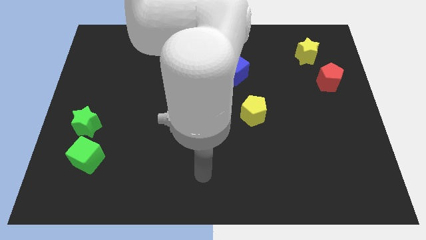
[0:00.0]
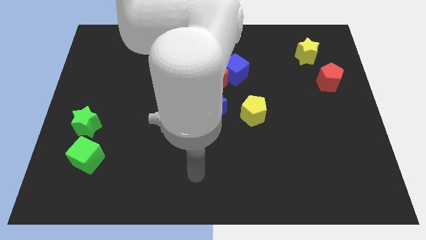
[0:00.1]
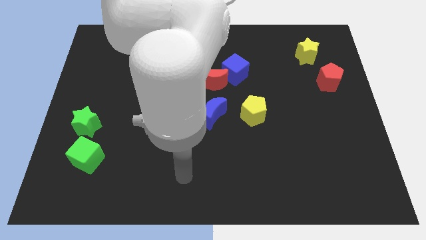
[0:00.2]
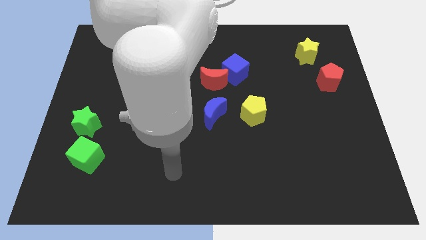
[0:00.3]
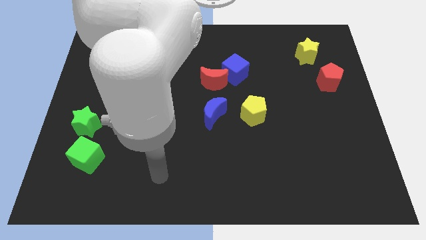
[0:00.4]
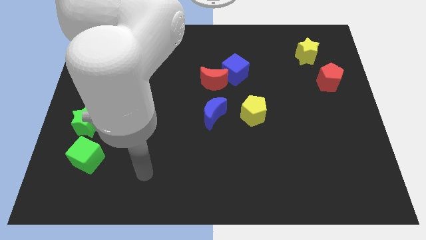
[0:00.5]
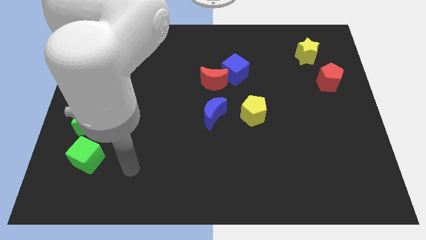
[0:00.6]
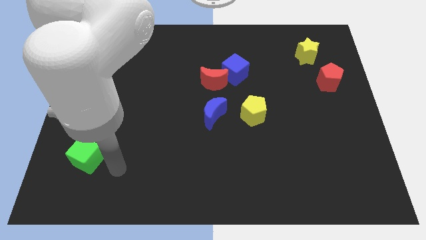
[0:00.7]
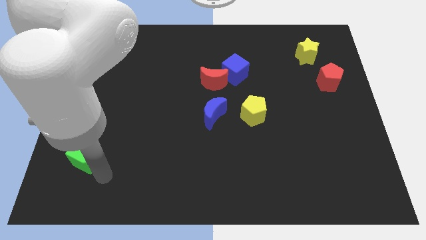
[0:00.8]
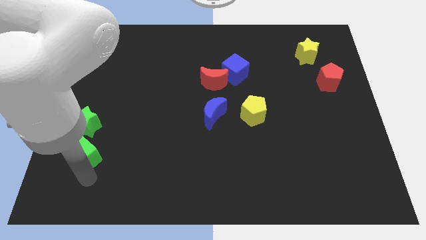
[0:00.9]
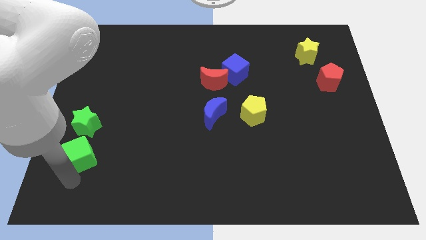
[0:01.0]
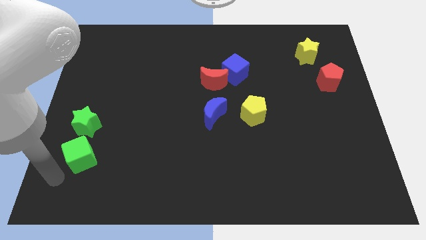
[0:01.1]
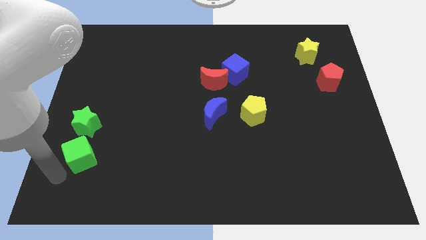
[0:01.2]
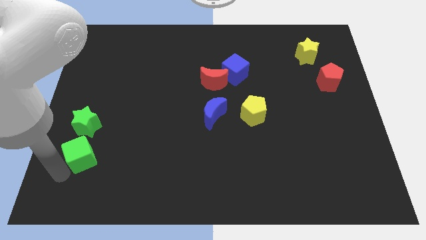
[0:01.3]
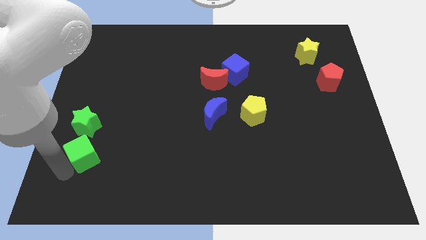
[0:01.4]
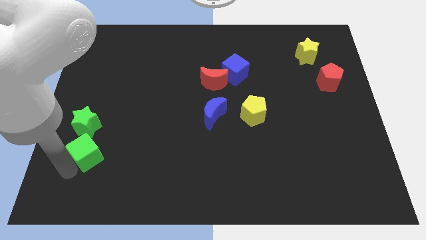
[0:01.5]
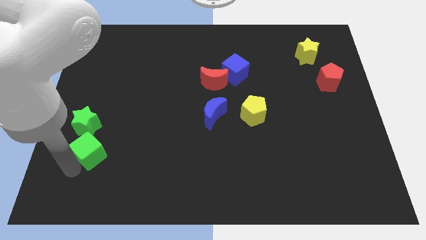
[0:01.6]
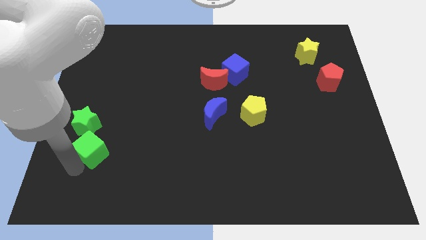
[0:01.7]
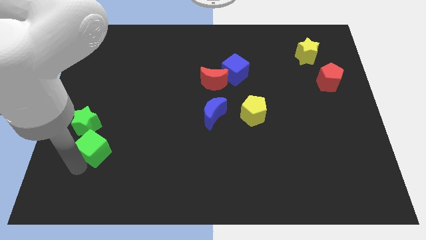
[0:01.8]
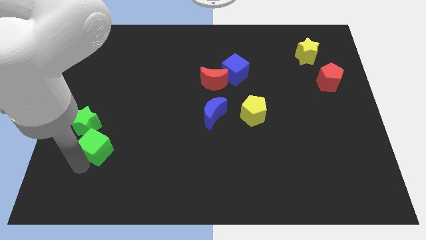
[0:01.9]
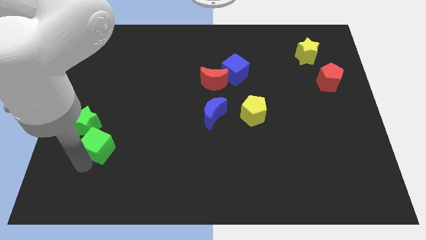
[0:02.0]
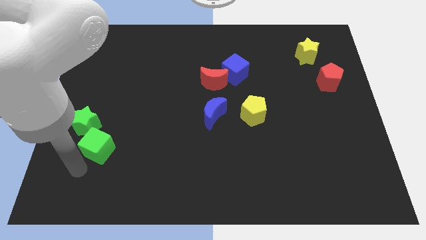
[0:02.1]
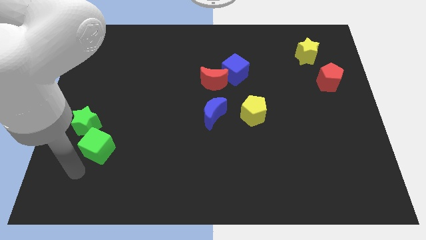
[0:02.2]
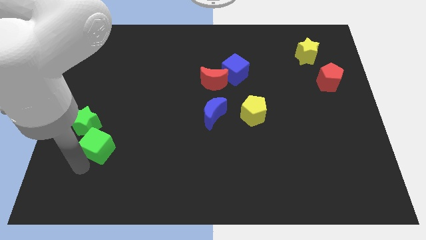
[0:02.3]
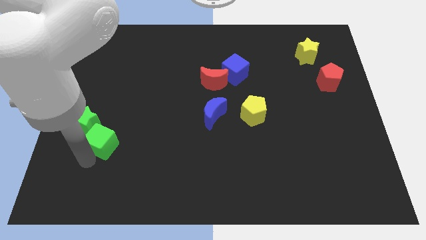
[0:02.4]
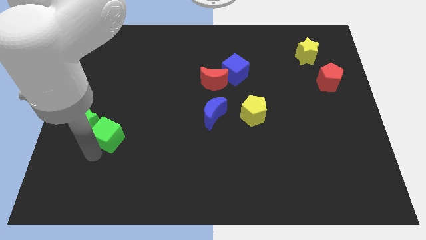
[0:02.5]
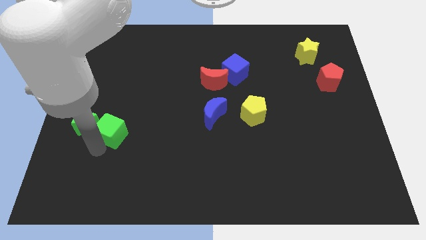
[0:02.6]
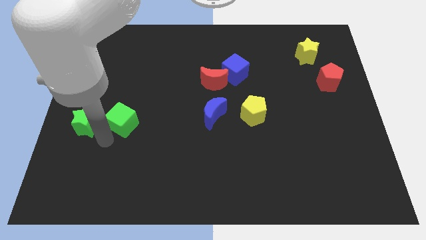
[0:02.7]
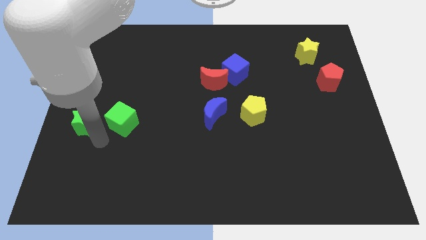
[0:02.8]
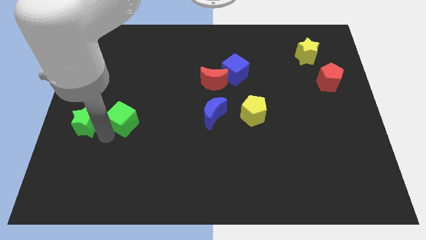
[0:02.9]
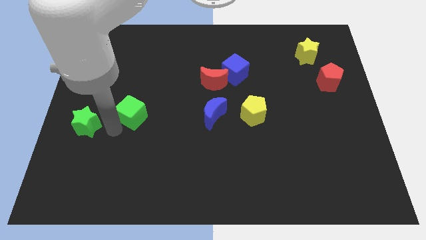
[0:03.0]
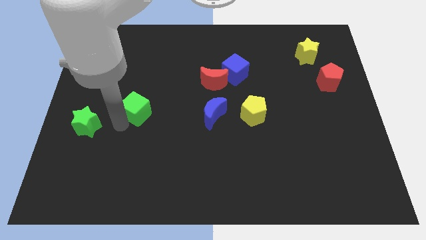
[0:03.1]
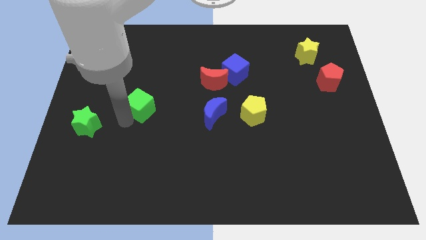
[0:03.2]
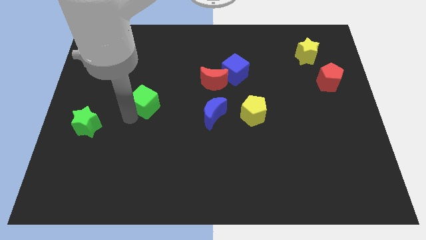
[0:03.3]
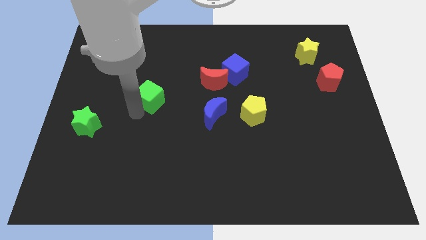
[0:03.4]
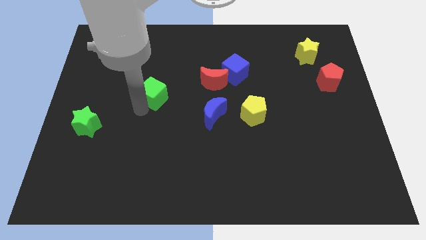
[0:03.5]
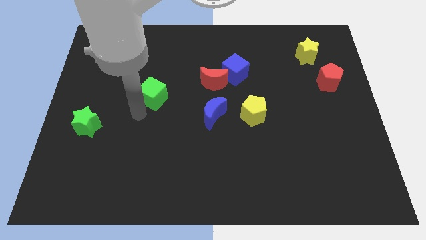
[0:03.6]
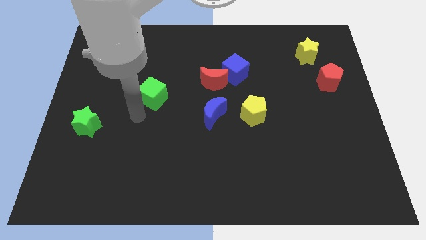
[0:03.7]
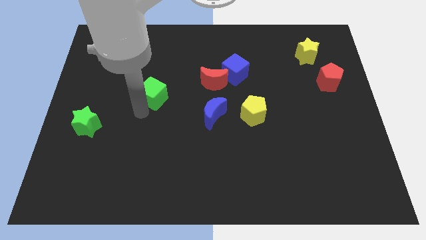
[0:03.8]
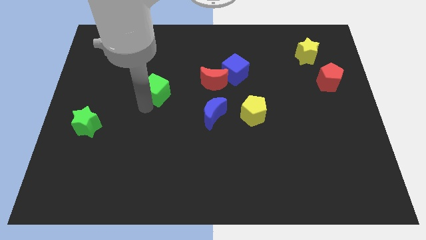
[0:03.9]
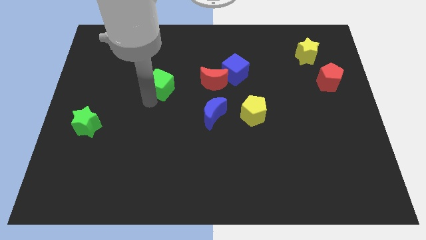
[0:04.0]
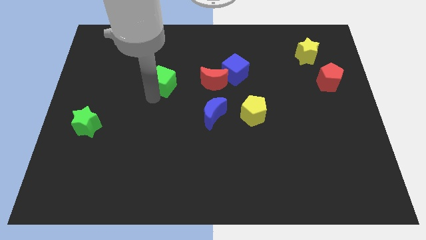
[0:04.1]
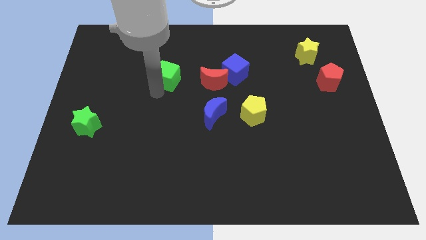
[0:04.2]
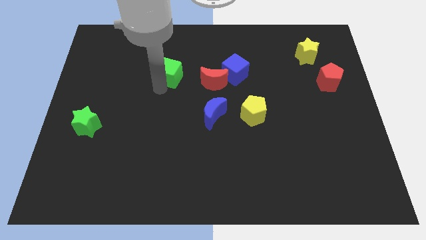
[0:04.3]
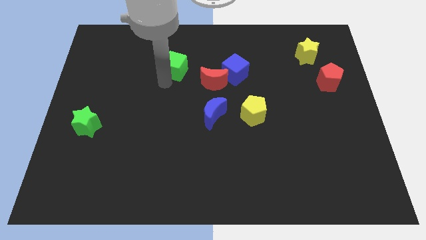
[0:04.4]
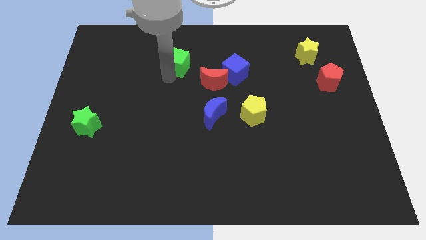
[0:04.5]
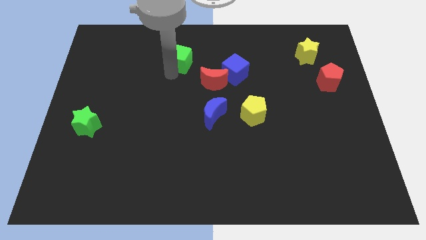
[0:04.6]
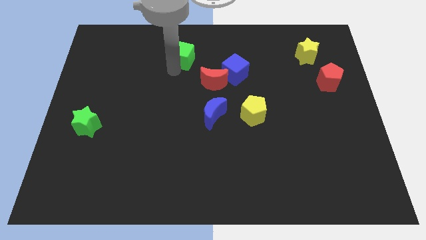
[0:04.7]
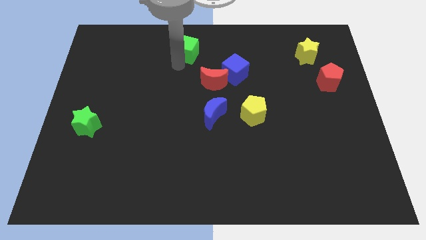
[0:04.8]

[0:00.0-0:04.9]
push the green cube to the top

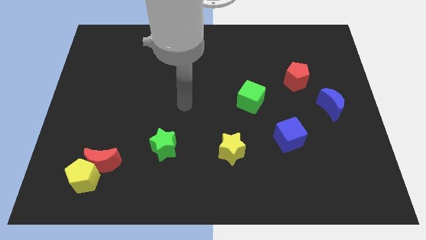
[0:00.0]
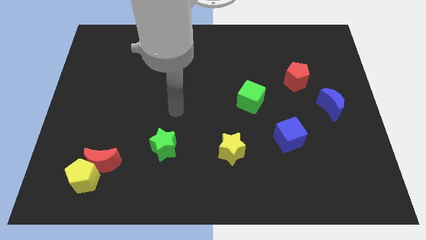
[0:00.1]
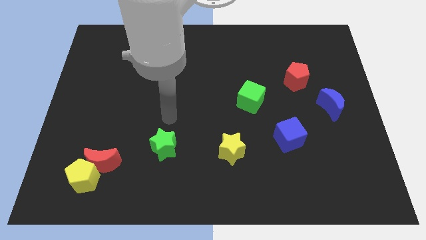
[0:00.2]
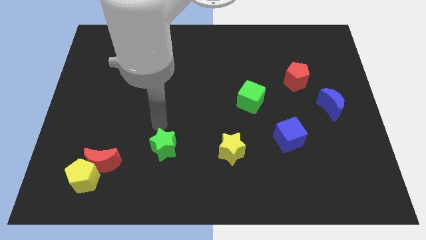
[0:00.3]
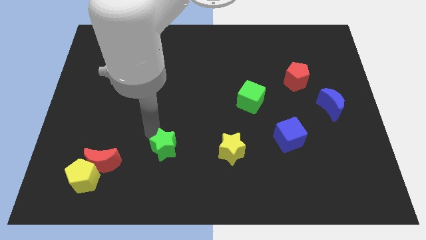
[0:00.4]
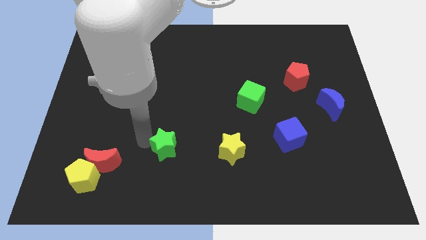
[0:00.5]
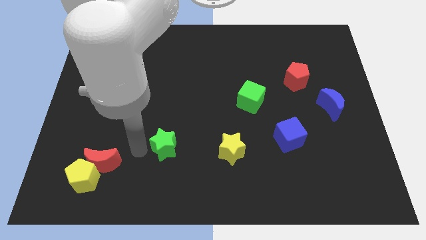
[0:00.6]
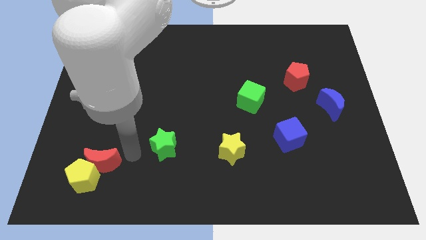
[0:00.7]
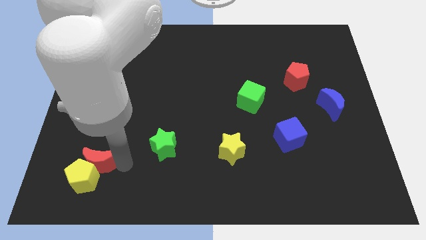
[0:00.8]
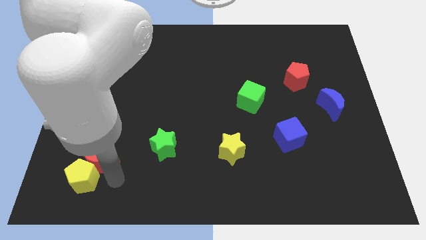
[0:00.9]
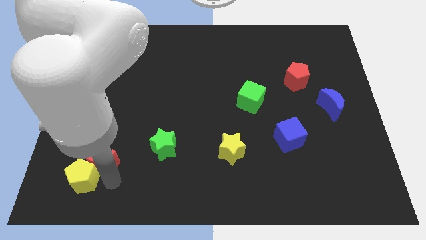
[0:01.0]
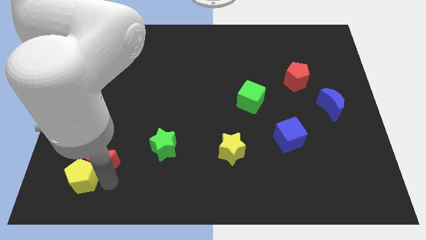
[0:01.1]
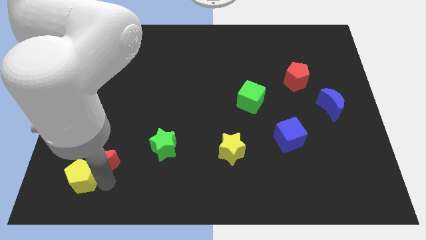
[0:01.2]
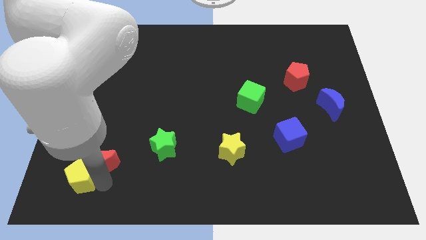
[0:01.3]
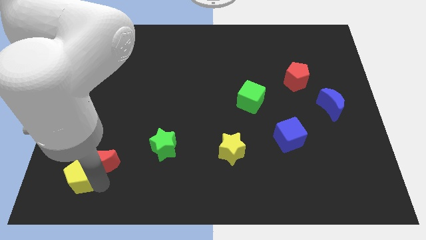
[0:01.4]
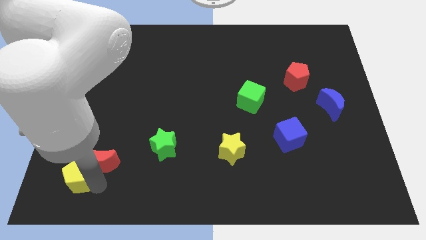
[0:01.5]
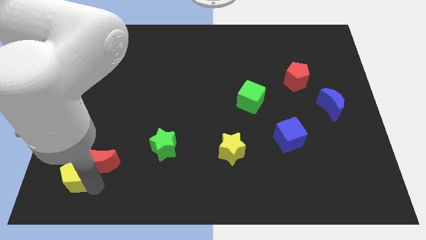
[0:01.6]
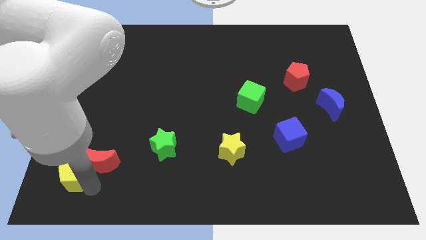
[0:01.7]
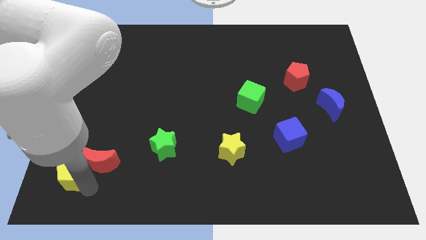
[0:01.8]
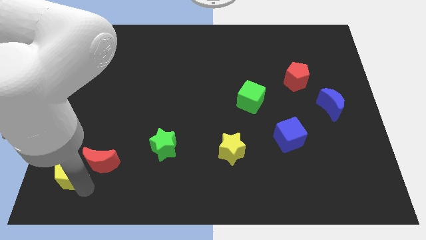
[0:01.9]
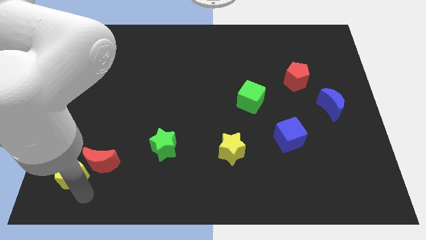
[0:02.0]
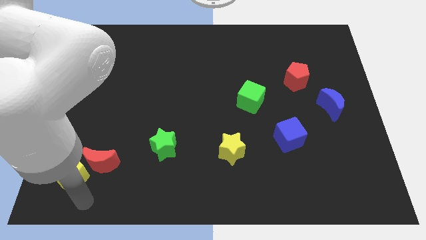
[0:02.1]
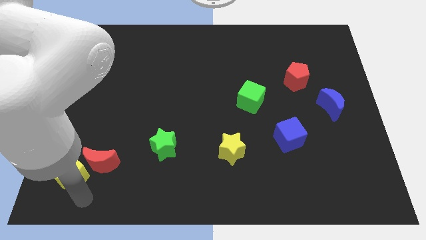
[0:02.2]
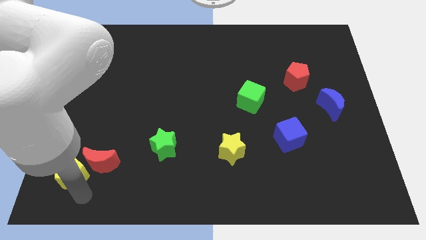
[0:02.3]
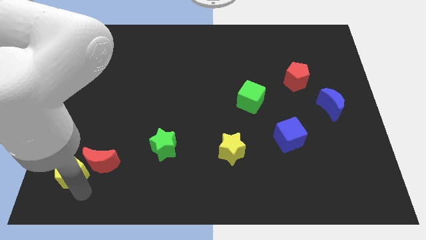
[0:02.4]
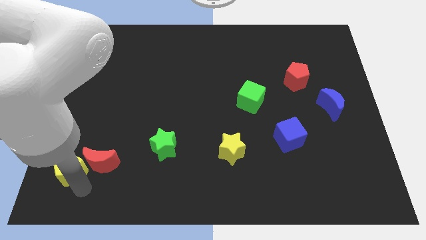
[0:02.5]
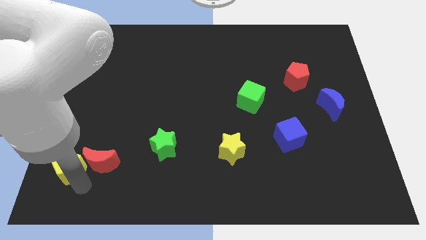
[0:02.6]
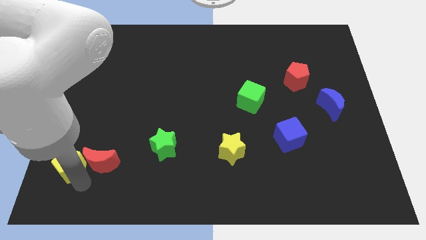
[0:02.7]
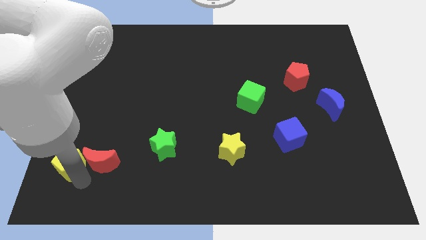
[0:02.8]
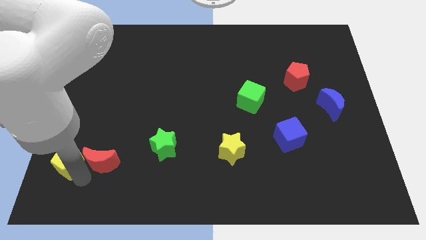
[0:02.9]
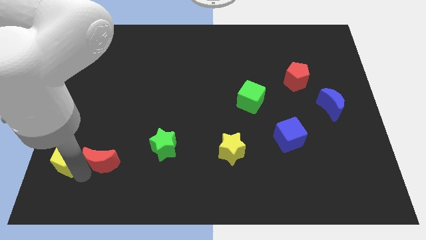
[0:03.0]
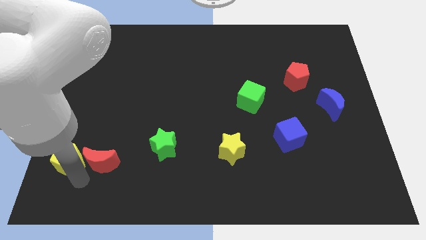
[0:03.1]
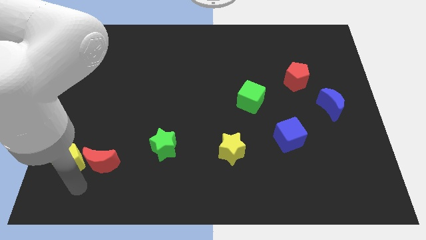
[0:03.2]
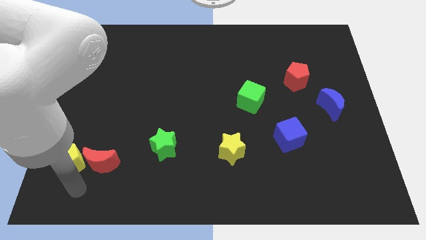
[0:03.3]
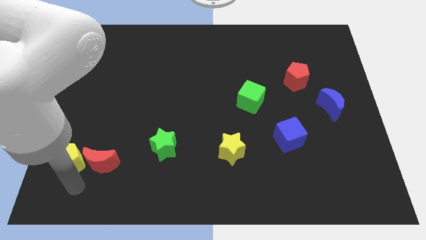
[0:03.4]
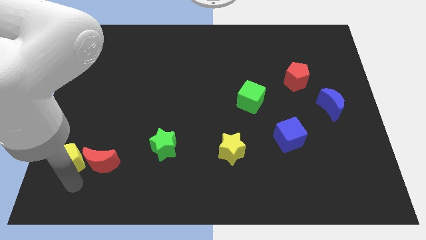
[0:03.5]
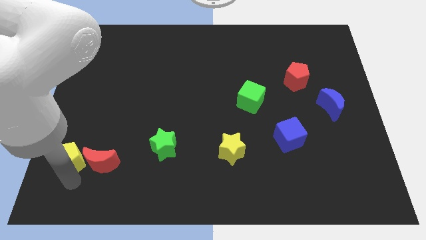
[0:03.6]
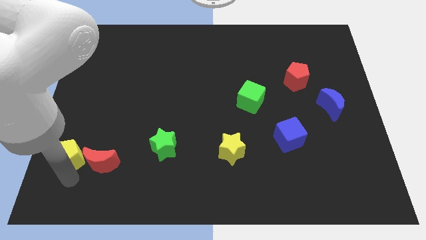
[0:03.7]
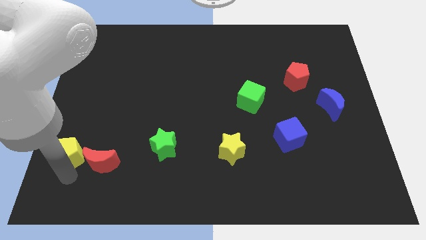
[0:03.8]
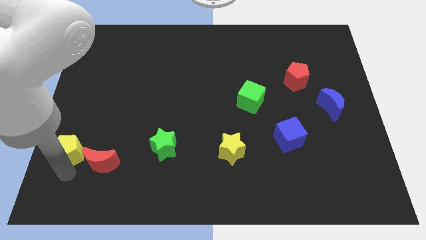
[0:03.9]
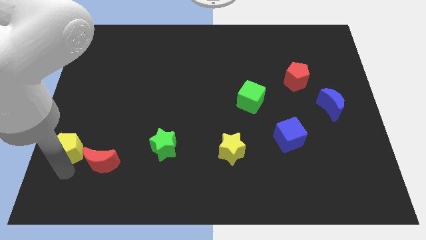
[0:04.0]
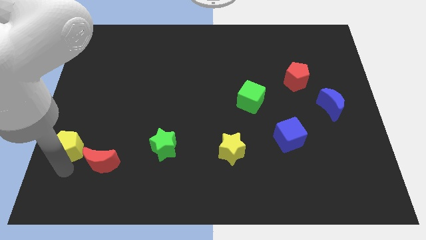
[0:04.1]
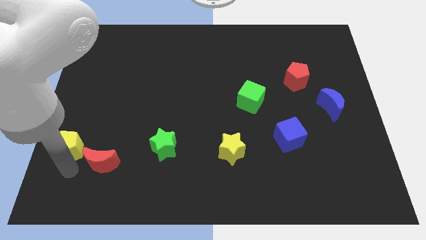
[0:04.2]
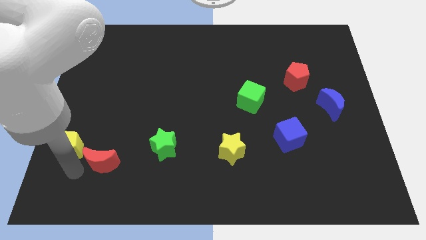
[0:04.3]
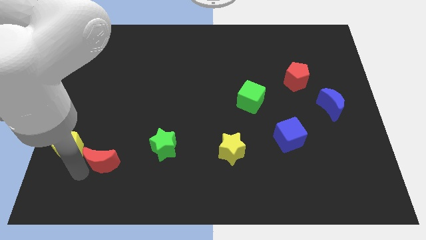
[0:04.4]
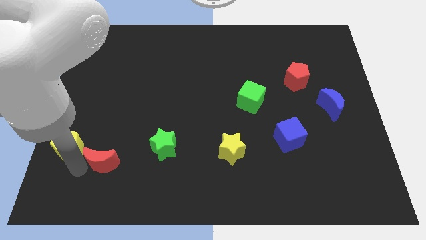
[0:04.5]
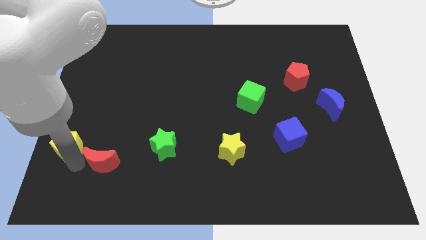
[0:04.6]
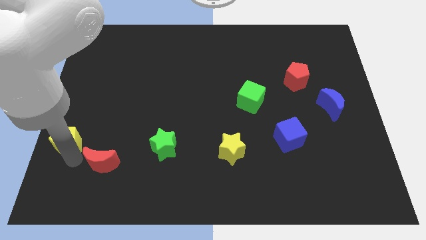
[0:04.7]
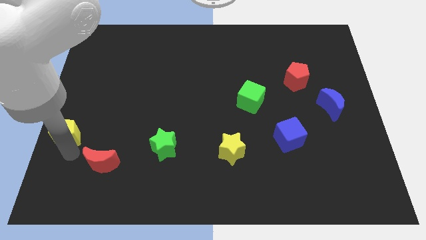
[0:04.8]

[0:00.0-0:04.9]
move the yellow pentagon to the center left
